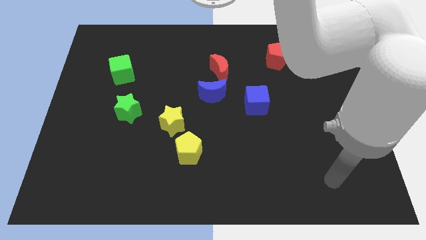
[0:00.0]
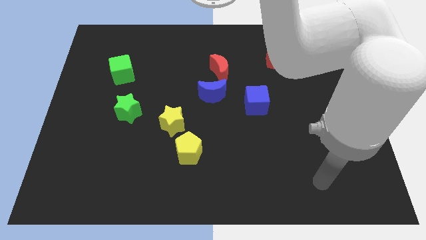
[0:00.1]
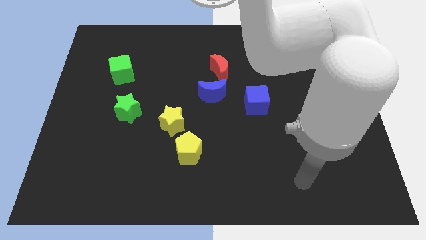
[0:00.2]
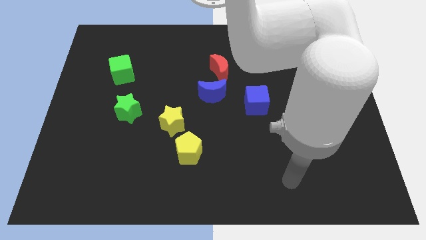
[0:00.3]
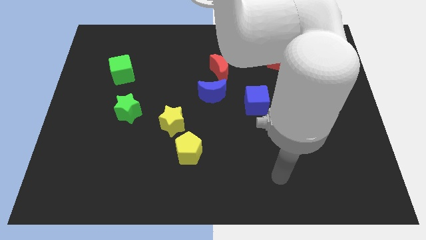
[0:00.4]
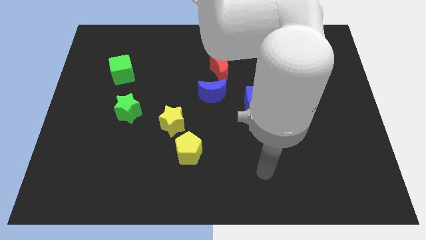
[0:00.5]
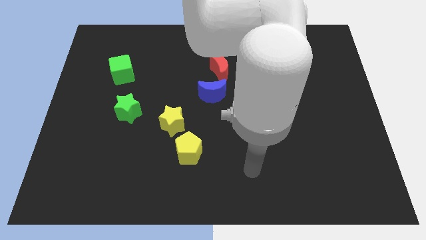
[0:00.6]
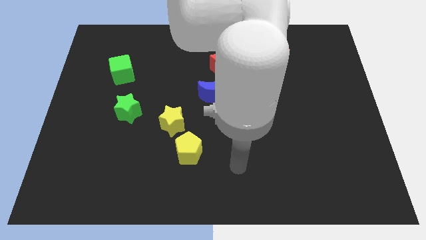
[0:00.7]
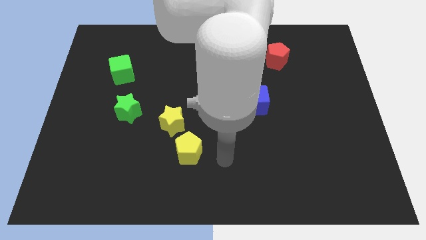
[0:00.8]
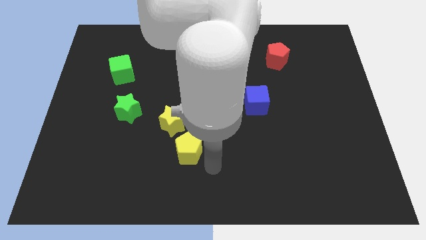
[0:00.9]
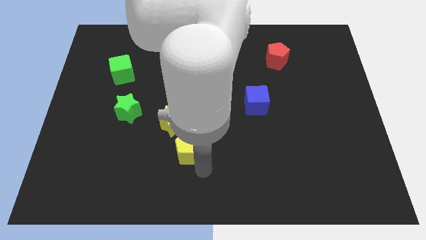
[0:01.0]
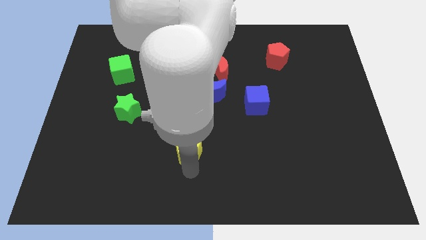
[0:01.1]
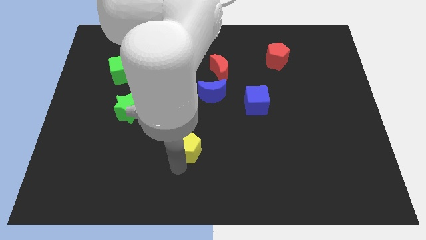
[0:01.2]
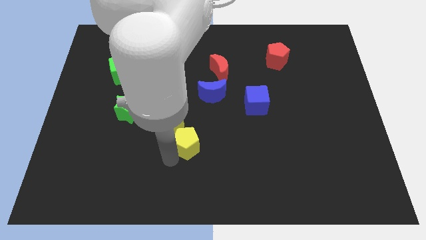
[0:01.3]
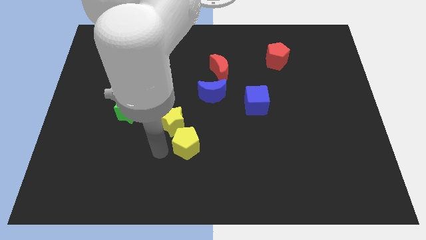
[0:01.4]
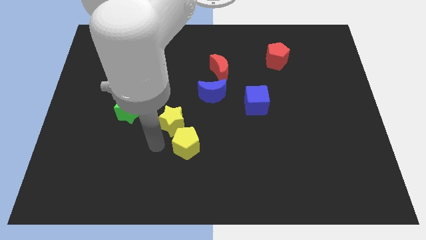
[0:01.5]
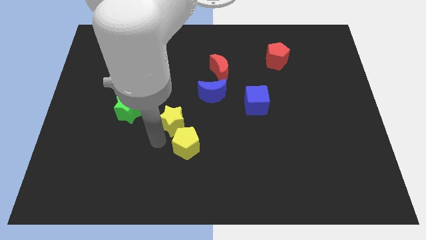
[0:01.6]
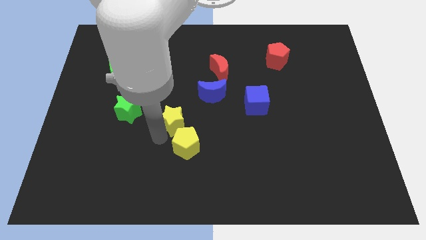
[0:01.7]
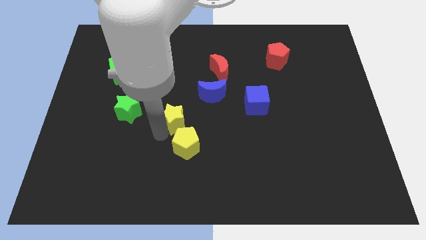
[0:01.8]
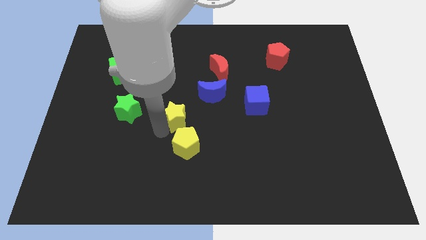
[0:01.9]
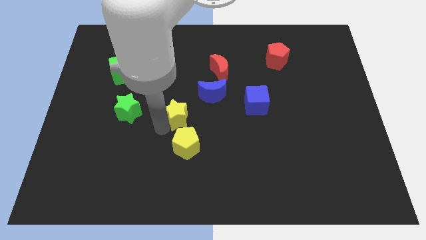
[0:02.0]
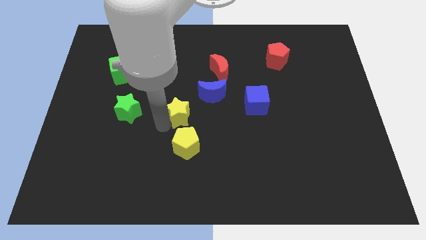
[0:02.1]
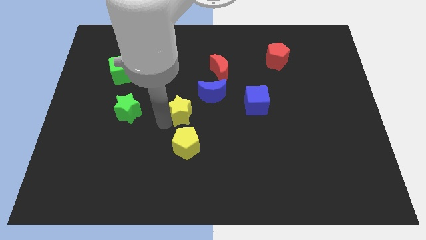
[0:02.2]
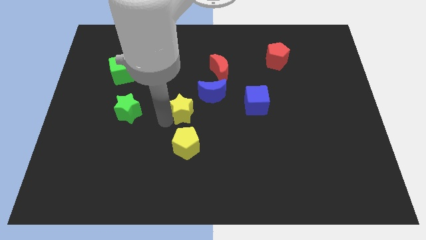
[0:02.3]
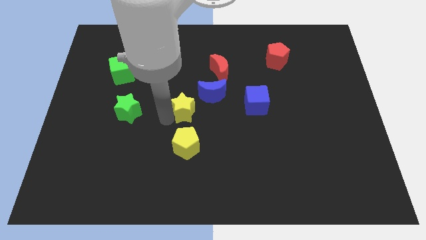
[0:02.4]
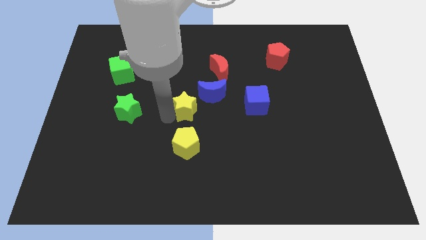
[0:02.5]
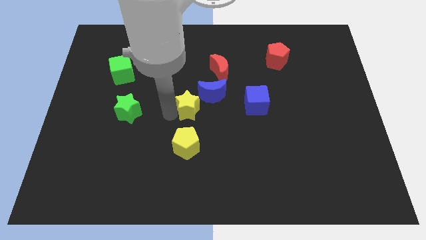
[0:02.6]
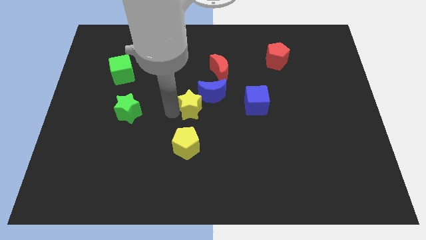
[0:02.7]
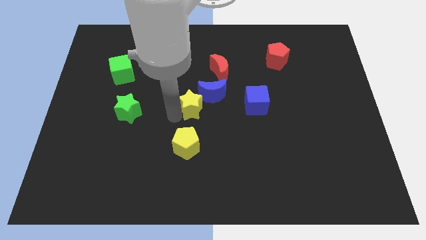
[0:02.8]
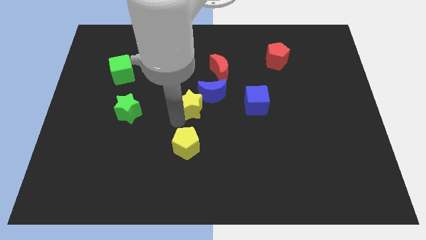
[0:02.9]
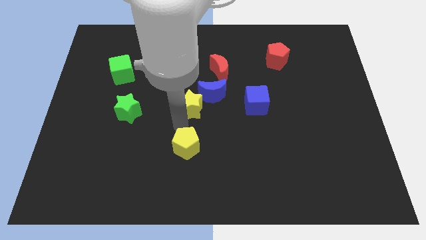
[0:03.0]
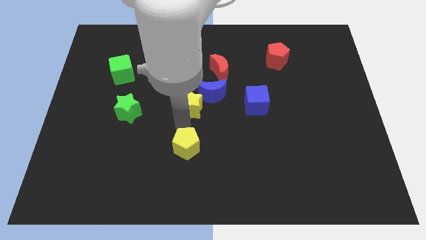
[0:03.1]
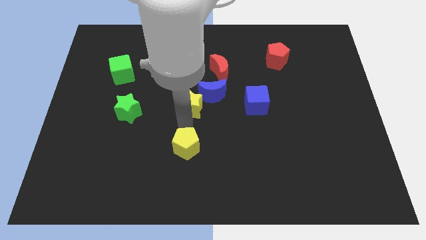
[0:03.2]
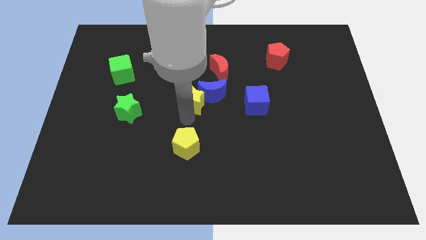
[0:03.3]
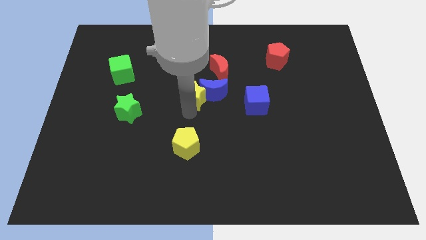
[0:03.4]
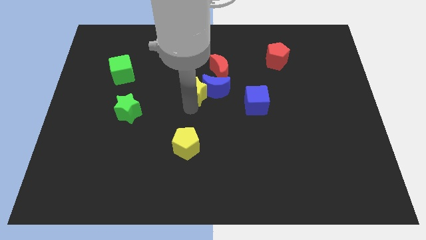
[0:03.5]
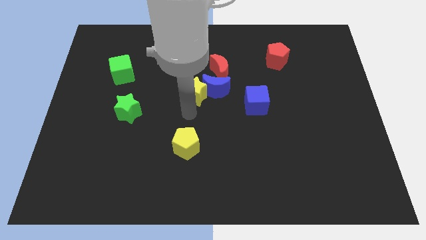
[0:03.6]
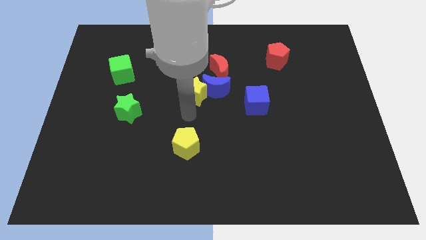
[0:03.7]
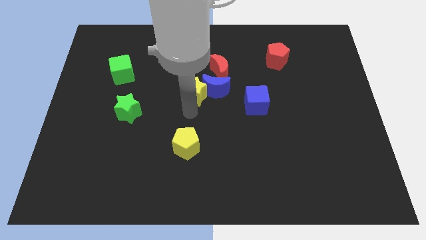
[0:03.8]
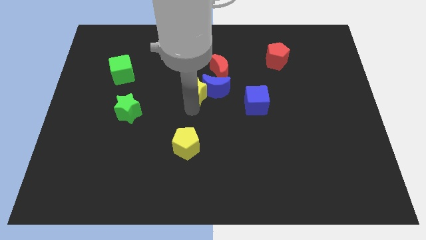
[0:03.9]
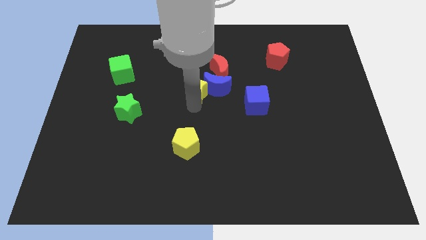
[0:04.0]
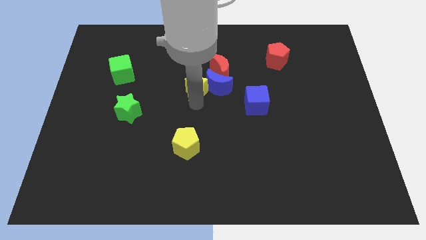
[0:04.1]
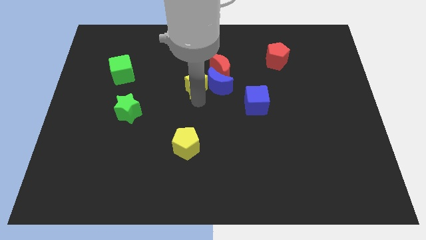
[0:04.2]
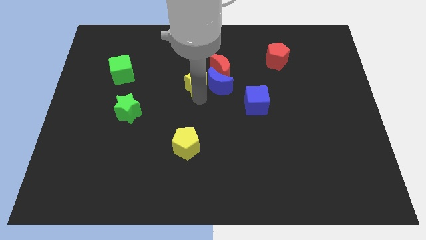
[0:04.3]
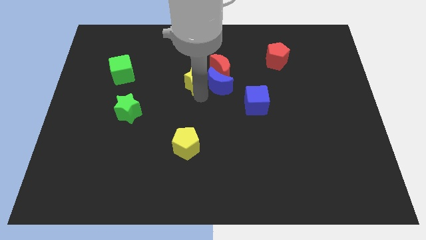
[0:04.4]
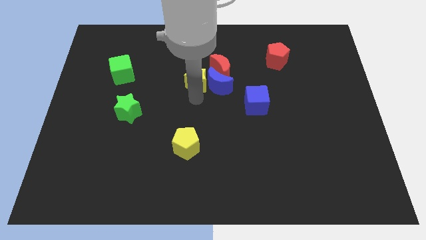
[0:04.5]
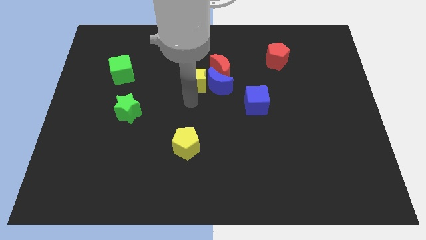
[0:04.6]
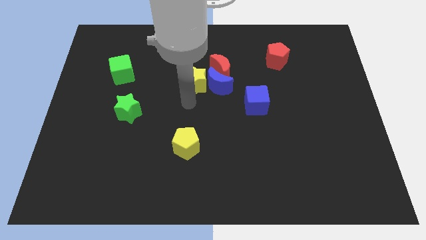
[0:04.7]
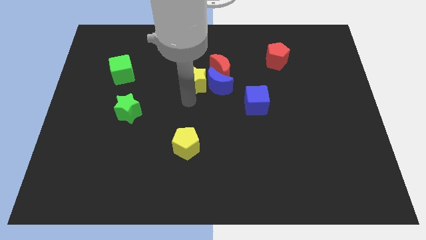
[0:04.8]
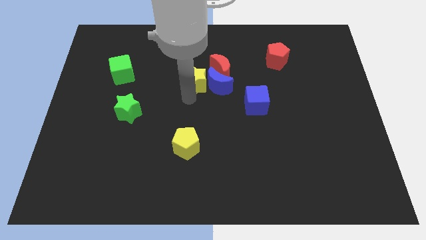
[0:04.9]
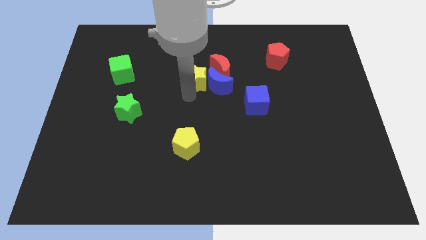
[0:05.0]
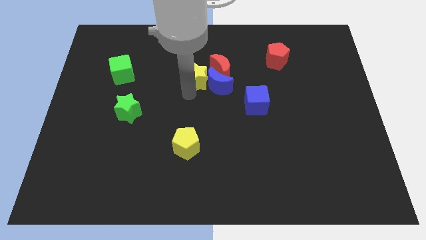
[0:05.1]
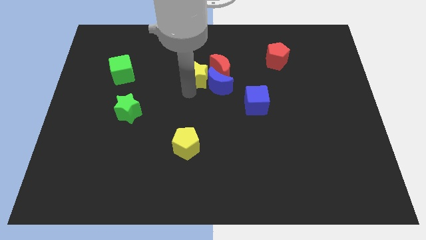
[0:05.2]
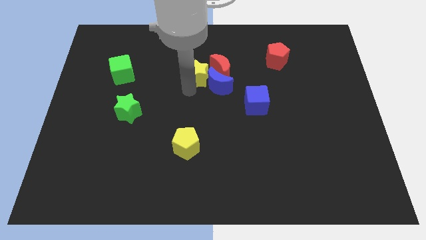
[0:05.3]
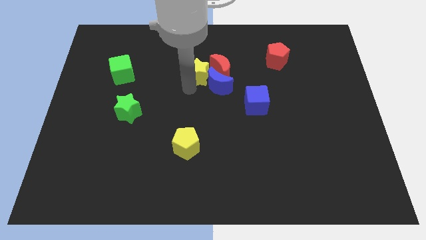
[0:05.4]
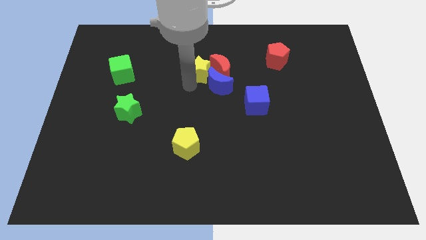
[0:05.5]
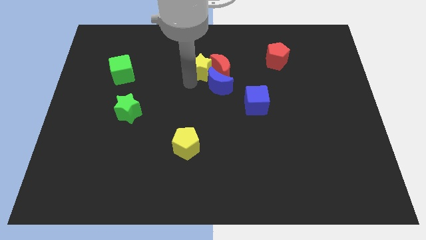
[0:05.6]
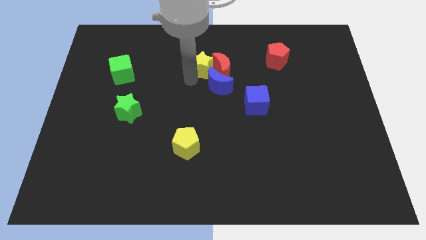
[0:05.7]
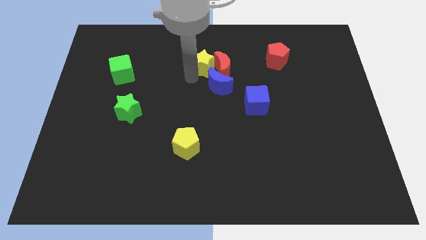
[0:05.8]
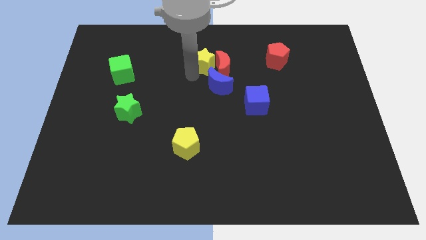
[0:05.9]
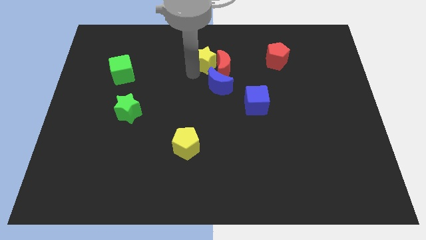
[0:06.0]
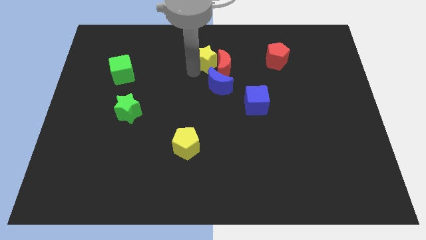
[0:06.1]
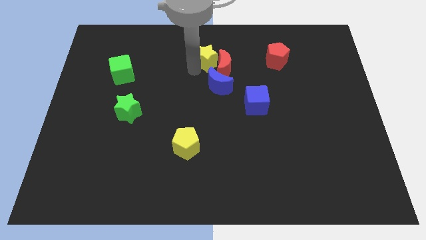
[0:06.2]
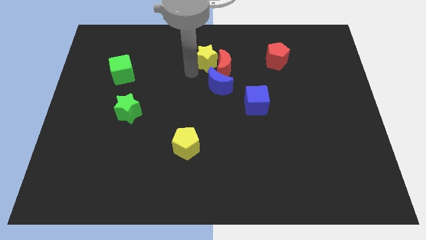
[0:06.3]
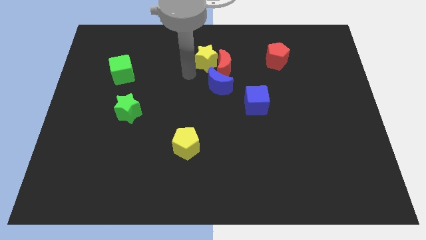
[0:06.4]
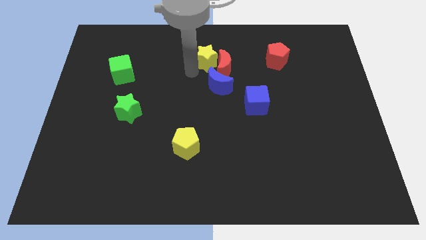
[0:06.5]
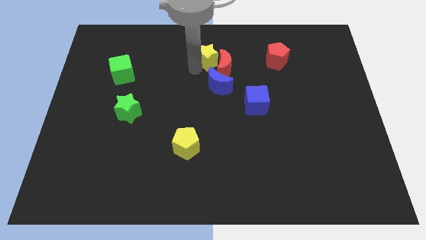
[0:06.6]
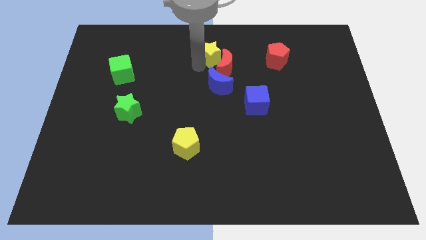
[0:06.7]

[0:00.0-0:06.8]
slide the yellow star to the top side
